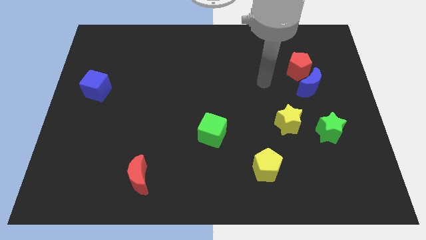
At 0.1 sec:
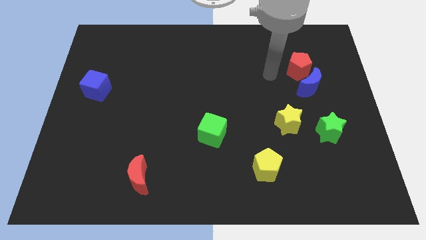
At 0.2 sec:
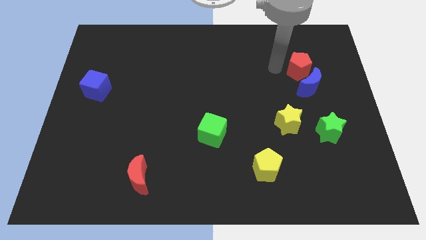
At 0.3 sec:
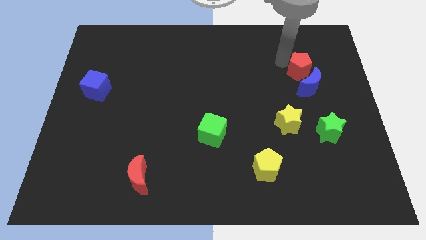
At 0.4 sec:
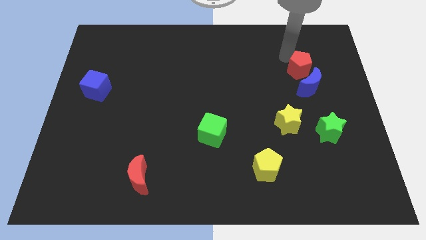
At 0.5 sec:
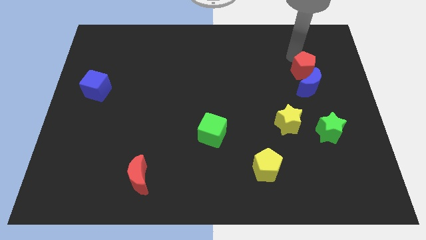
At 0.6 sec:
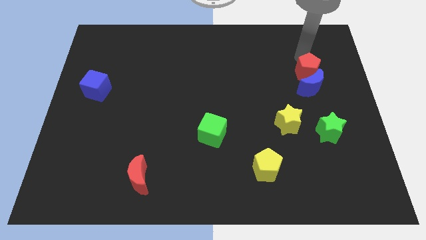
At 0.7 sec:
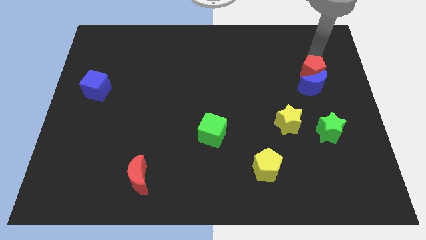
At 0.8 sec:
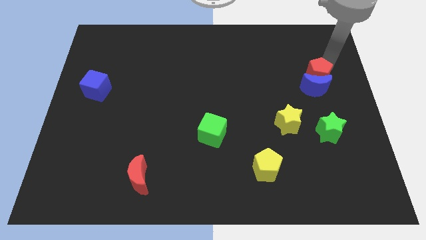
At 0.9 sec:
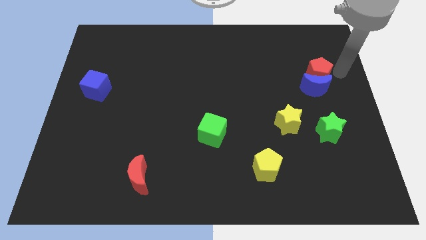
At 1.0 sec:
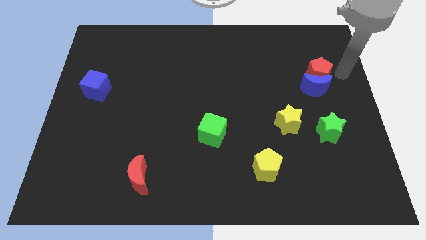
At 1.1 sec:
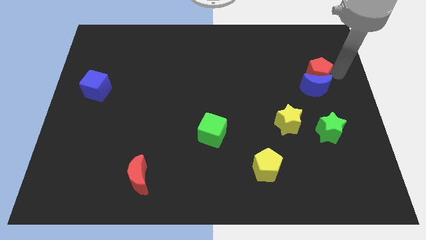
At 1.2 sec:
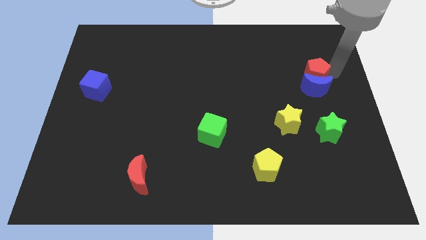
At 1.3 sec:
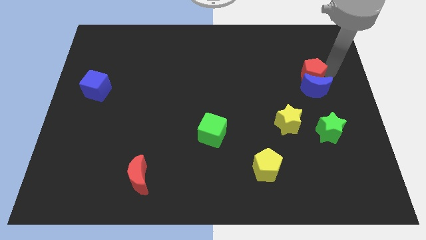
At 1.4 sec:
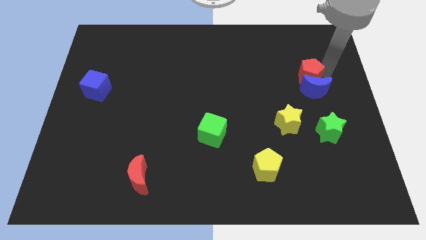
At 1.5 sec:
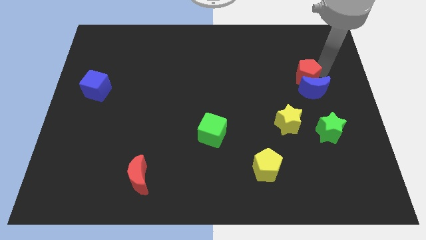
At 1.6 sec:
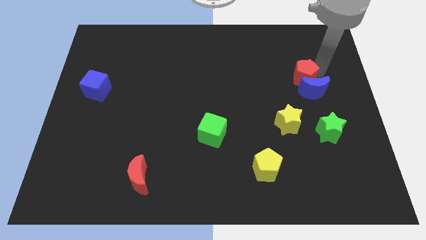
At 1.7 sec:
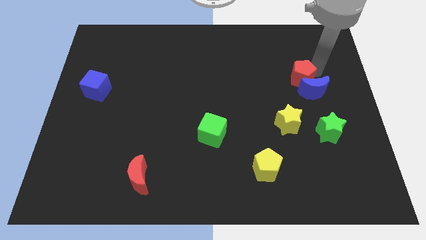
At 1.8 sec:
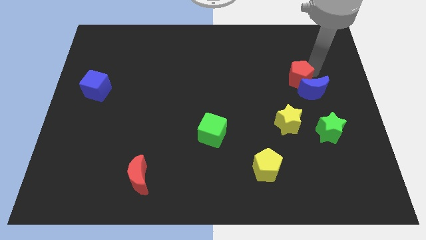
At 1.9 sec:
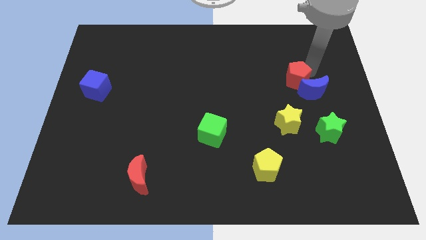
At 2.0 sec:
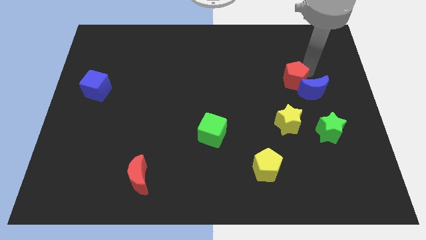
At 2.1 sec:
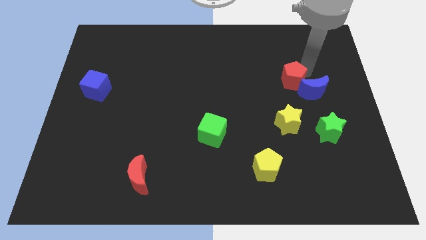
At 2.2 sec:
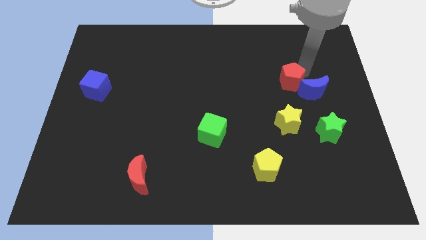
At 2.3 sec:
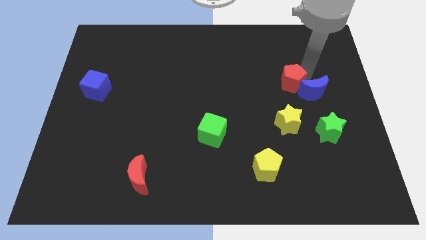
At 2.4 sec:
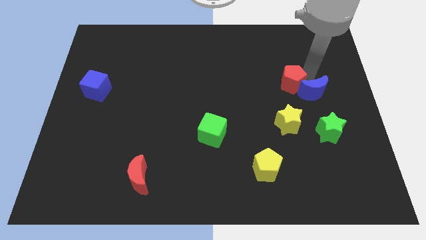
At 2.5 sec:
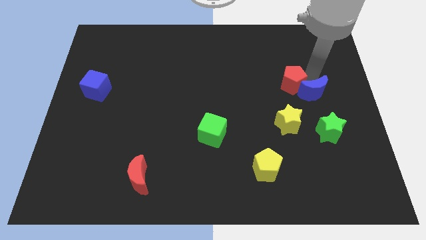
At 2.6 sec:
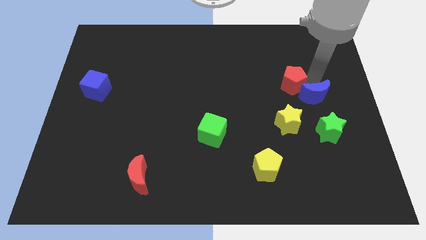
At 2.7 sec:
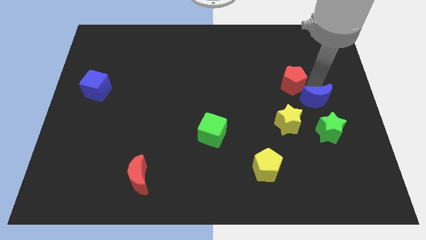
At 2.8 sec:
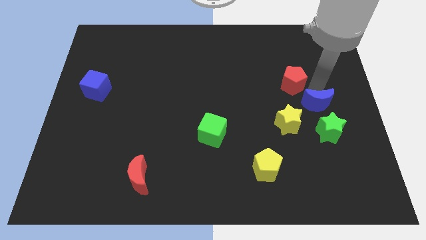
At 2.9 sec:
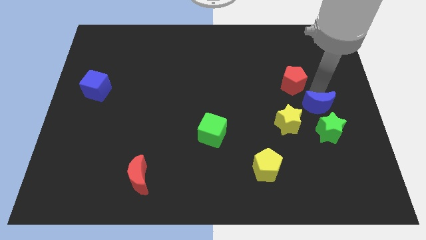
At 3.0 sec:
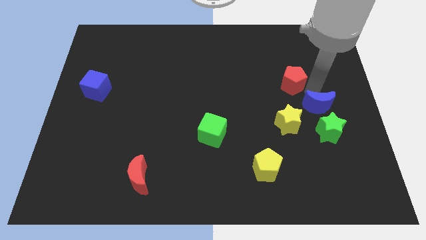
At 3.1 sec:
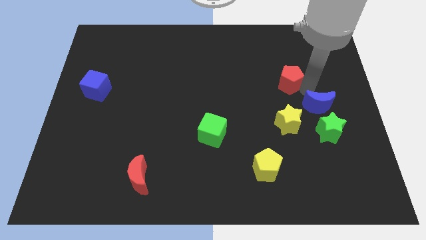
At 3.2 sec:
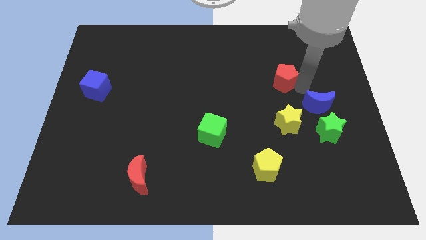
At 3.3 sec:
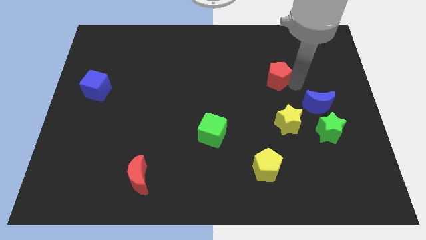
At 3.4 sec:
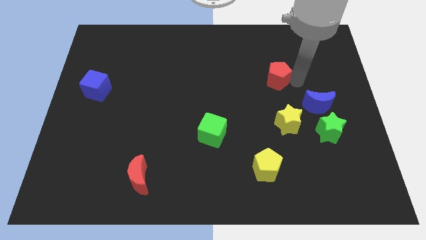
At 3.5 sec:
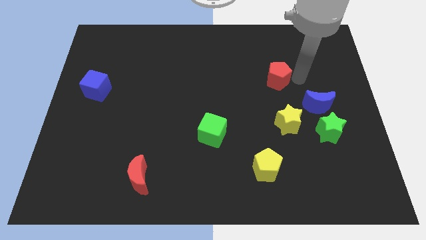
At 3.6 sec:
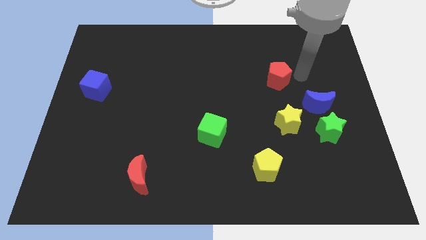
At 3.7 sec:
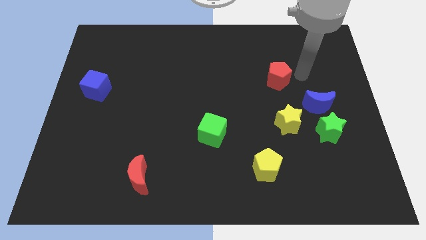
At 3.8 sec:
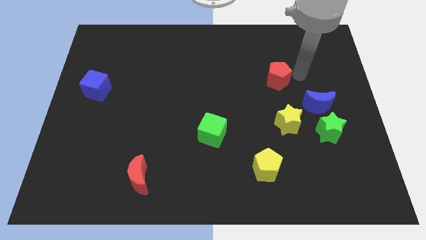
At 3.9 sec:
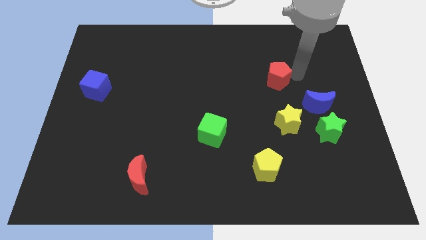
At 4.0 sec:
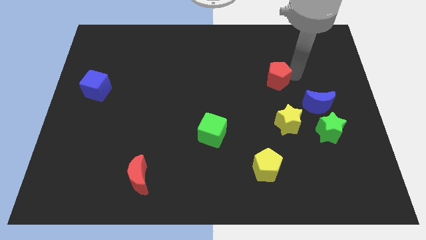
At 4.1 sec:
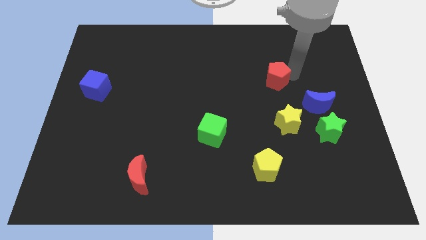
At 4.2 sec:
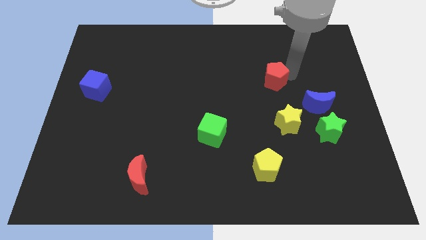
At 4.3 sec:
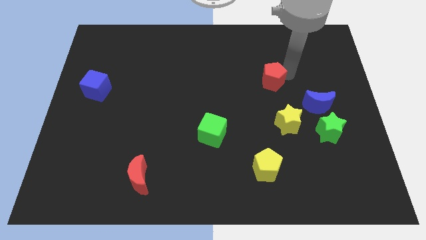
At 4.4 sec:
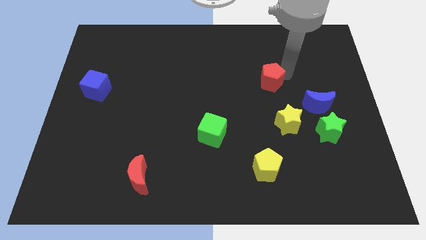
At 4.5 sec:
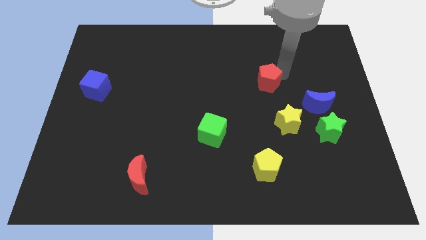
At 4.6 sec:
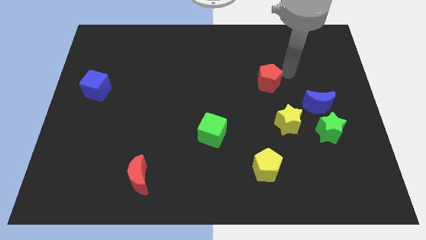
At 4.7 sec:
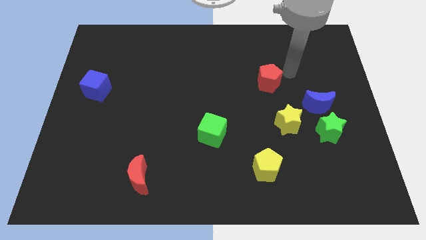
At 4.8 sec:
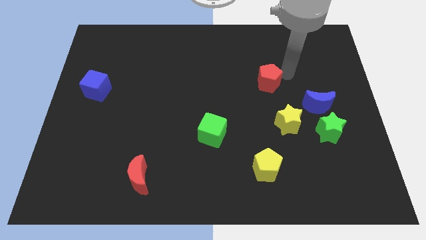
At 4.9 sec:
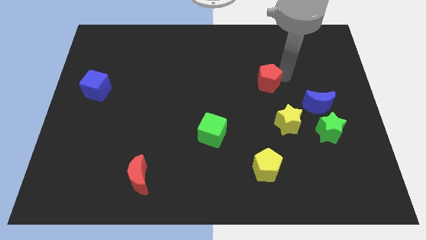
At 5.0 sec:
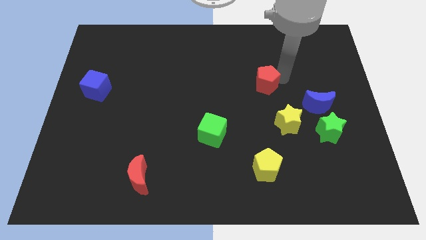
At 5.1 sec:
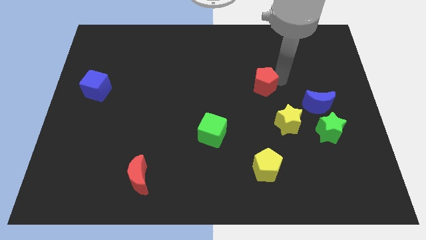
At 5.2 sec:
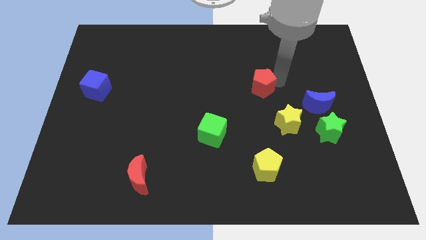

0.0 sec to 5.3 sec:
slide the red pentagon to the middle of the board

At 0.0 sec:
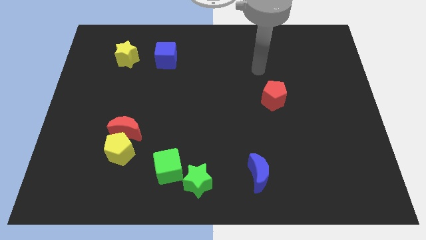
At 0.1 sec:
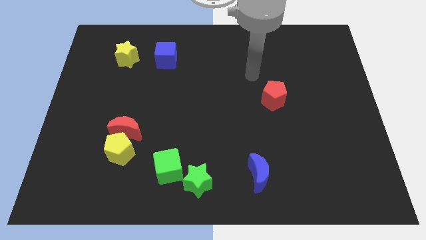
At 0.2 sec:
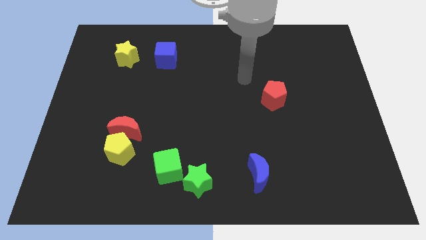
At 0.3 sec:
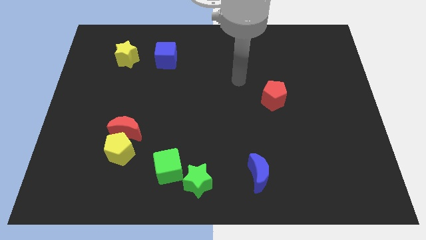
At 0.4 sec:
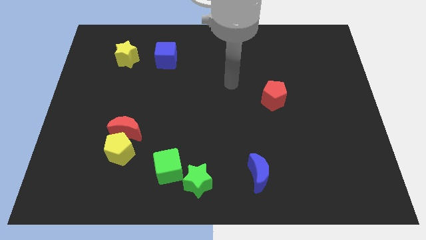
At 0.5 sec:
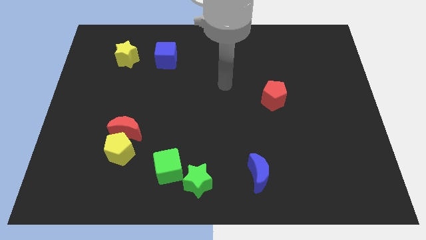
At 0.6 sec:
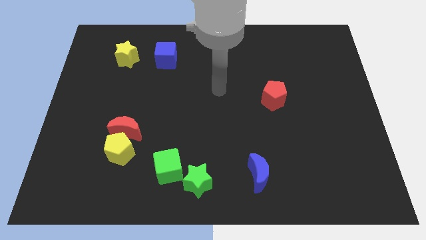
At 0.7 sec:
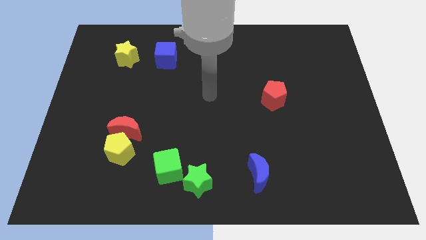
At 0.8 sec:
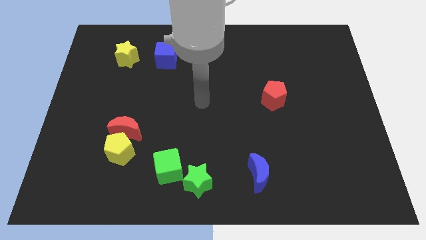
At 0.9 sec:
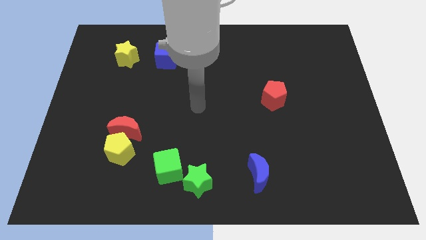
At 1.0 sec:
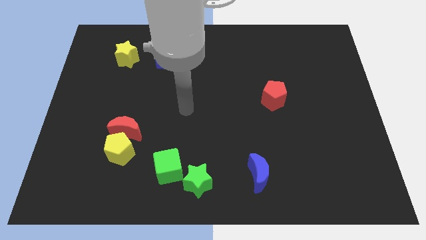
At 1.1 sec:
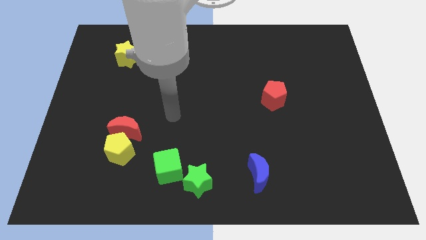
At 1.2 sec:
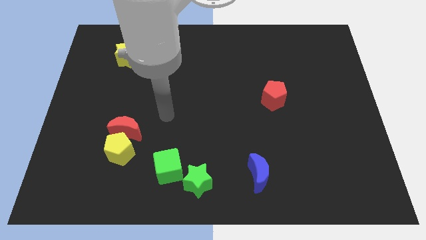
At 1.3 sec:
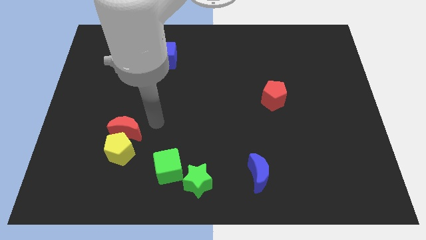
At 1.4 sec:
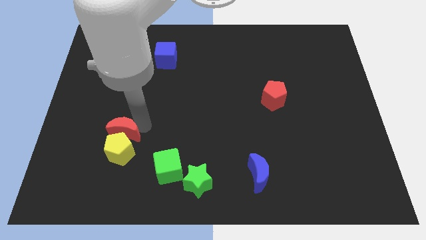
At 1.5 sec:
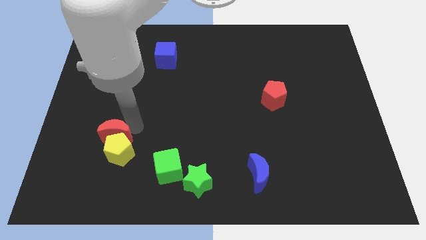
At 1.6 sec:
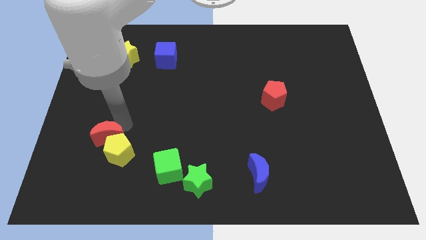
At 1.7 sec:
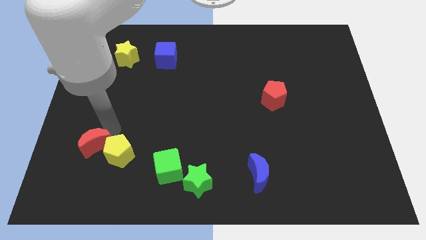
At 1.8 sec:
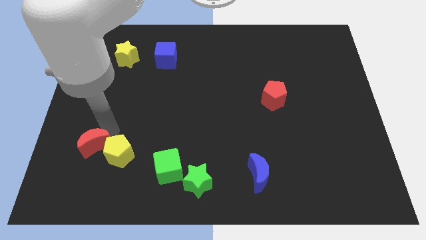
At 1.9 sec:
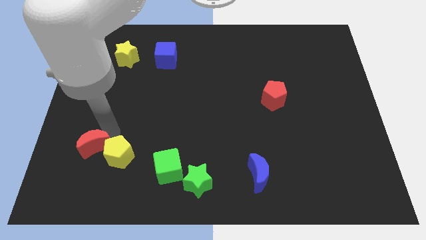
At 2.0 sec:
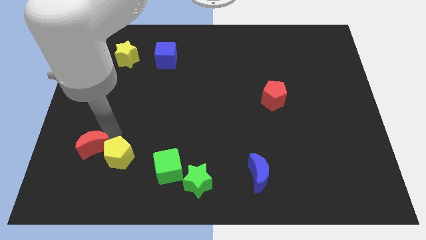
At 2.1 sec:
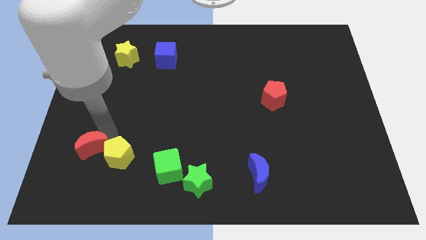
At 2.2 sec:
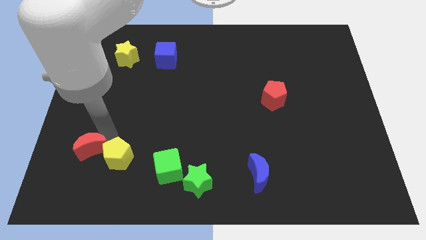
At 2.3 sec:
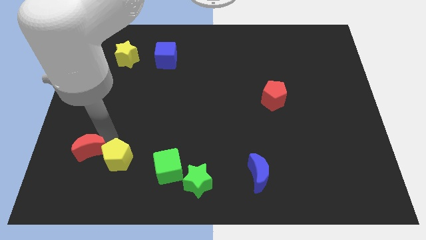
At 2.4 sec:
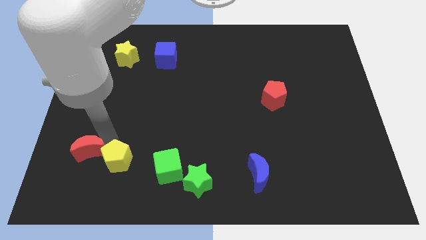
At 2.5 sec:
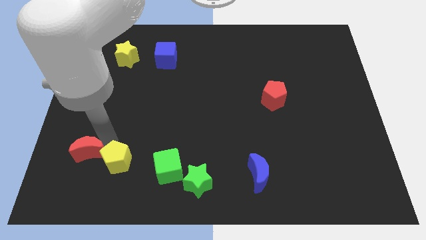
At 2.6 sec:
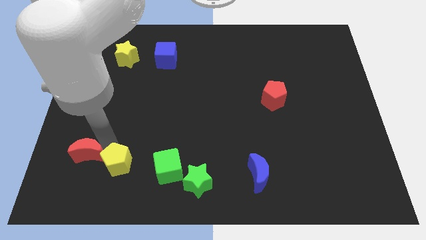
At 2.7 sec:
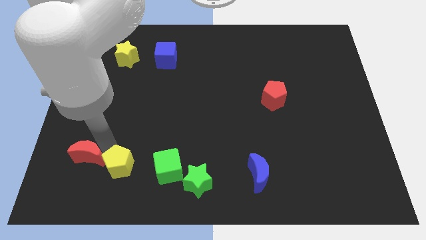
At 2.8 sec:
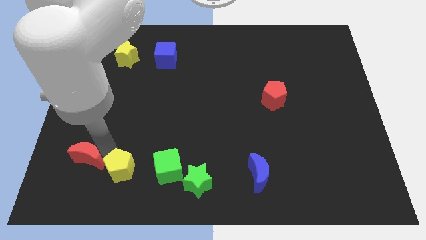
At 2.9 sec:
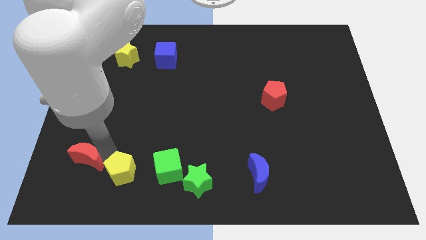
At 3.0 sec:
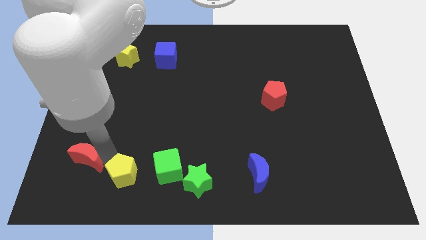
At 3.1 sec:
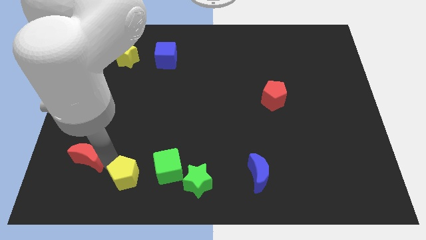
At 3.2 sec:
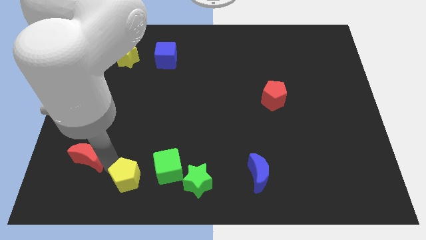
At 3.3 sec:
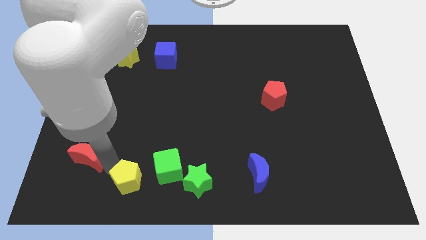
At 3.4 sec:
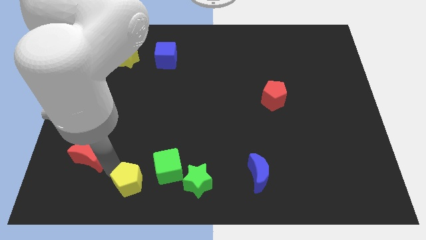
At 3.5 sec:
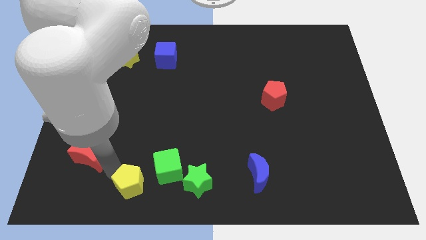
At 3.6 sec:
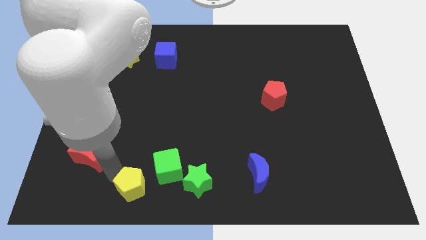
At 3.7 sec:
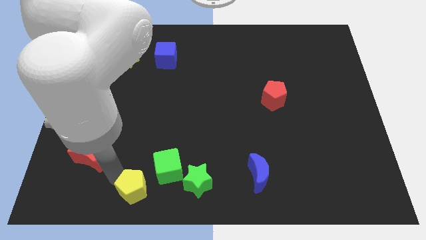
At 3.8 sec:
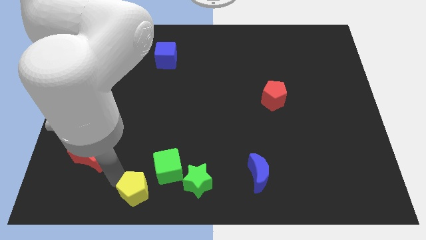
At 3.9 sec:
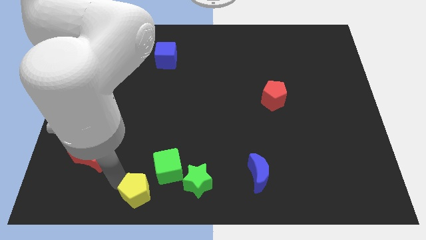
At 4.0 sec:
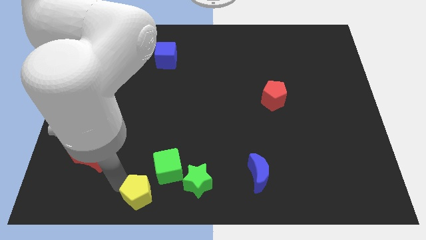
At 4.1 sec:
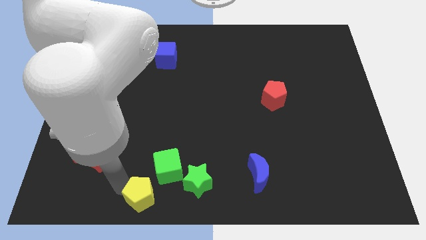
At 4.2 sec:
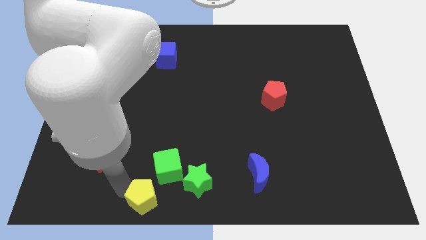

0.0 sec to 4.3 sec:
slide the yellow pentagon to the bottom
